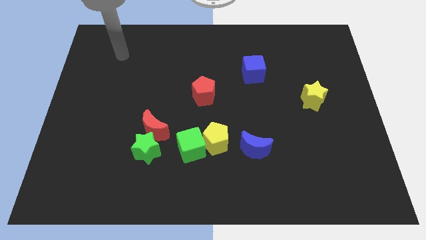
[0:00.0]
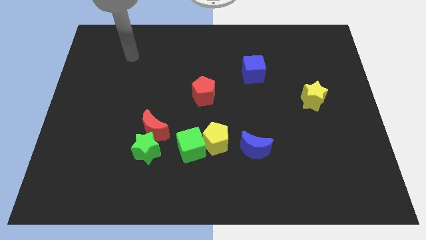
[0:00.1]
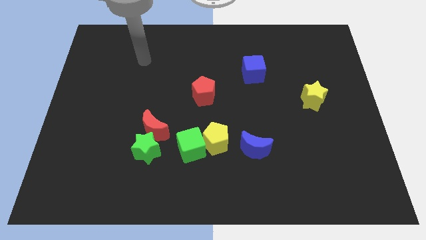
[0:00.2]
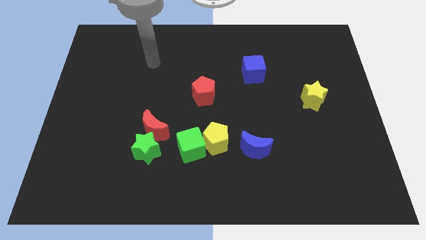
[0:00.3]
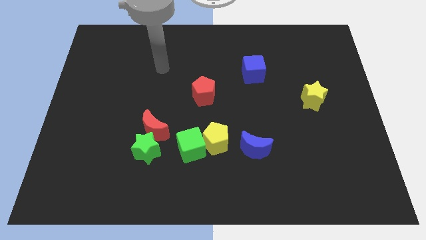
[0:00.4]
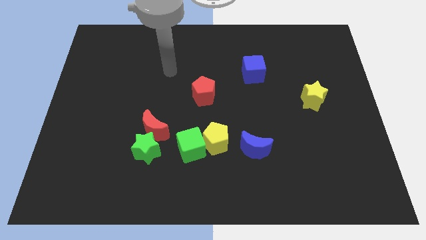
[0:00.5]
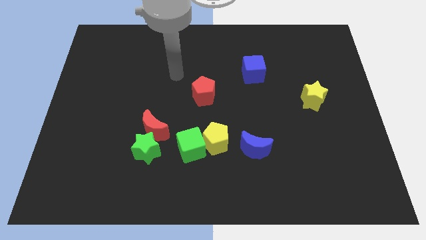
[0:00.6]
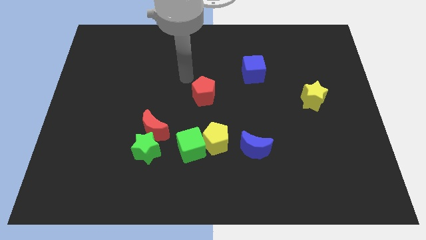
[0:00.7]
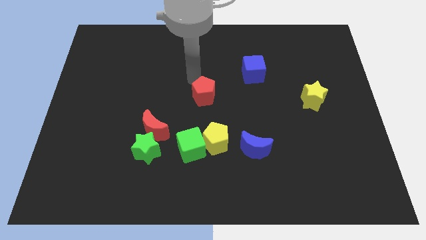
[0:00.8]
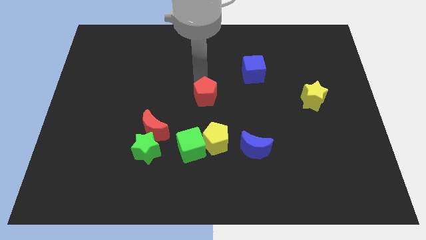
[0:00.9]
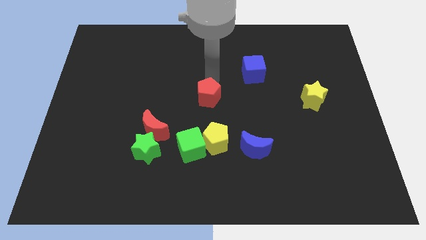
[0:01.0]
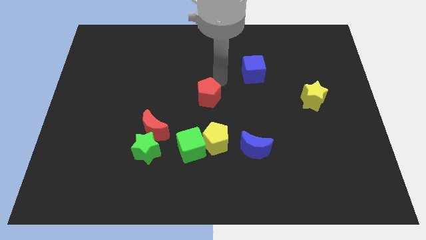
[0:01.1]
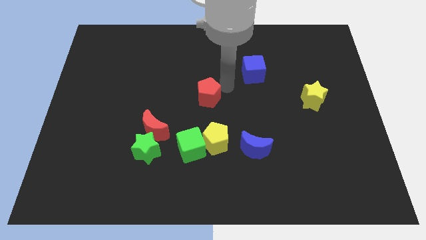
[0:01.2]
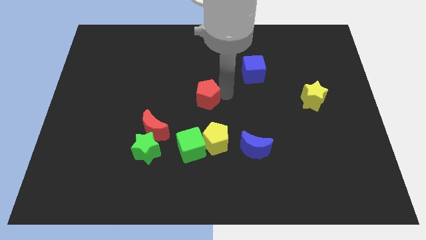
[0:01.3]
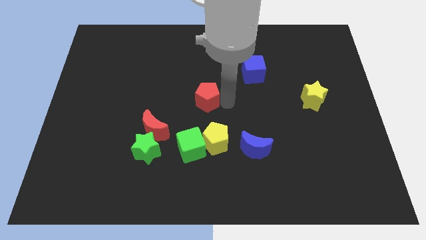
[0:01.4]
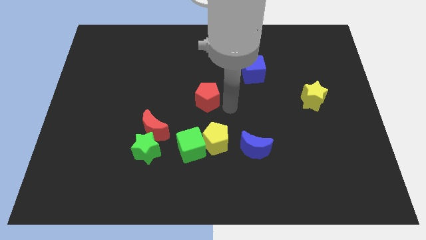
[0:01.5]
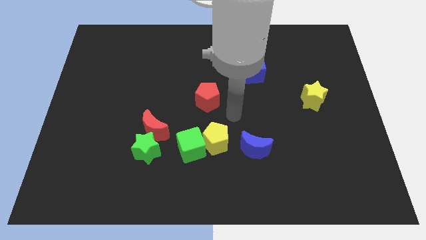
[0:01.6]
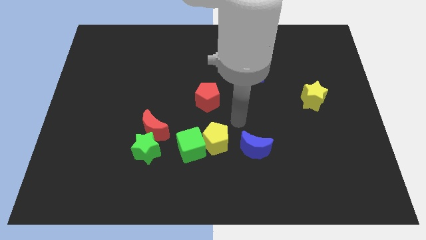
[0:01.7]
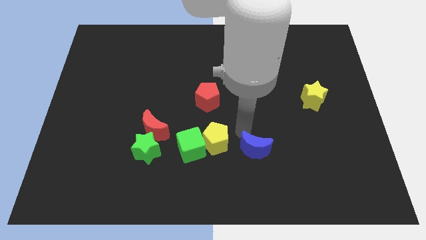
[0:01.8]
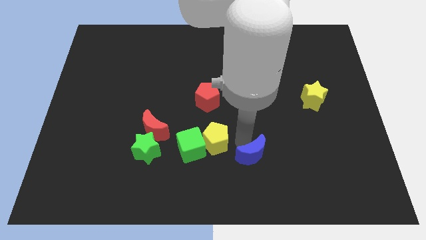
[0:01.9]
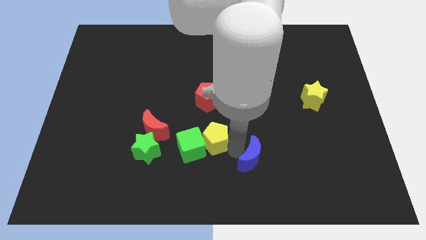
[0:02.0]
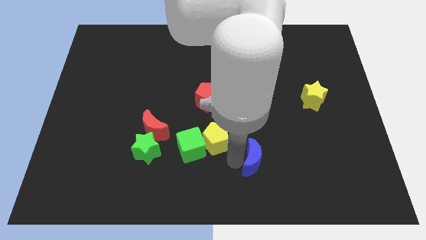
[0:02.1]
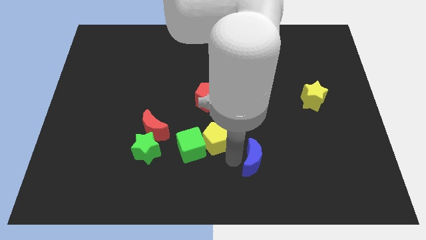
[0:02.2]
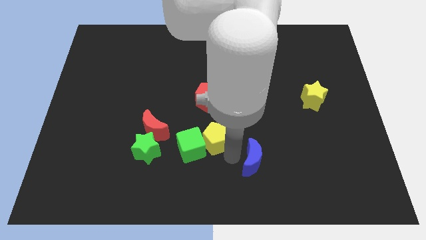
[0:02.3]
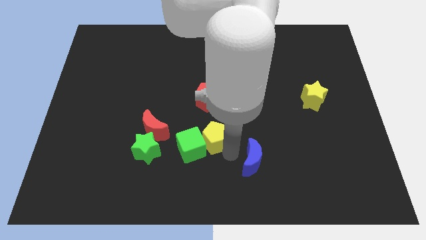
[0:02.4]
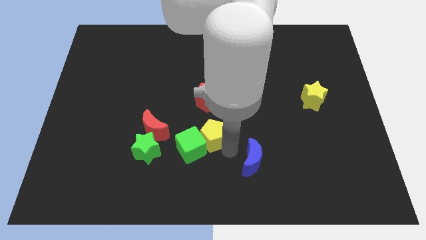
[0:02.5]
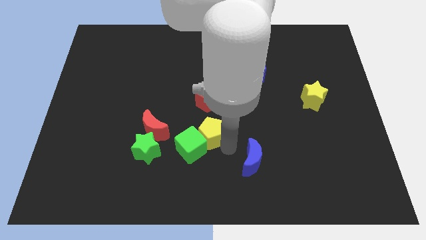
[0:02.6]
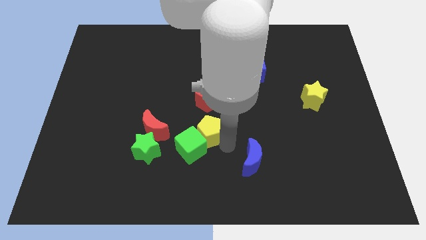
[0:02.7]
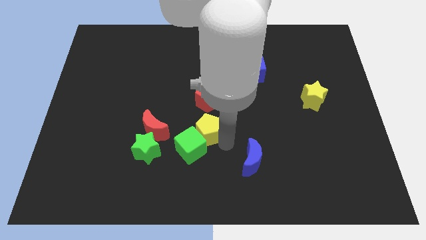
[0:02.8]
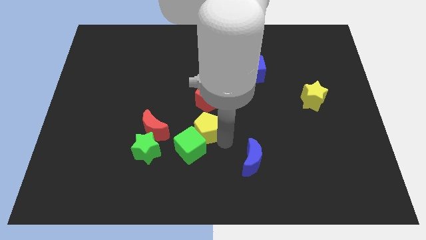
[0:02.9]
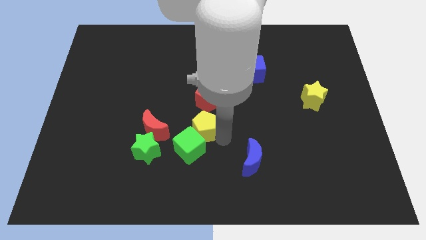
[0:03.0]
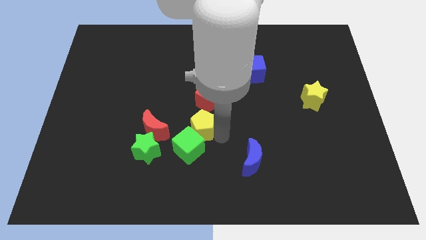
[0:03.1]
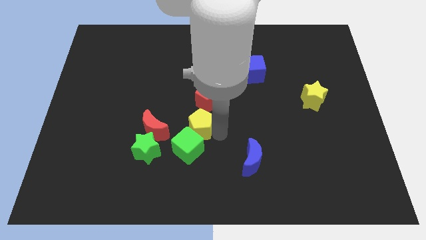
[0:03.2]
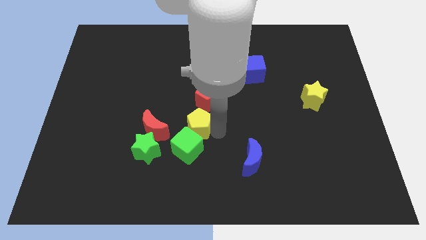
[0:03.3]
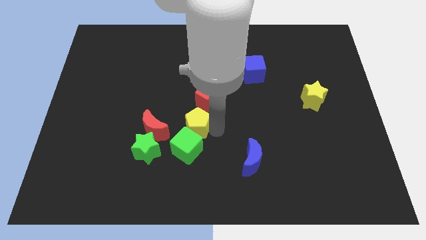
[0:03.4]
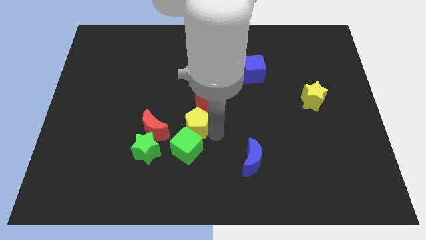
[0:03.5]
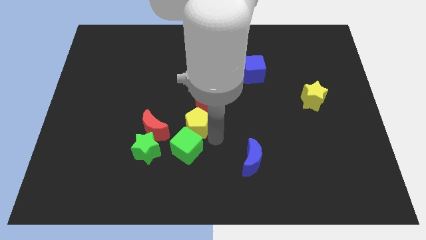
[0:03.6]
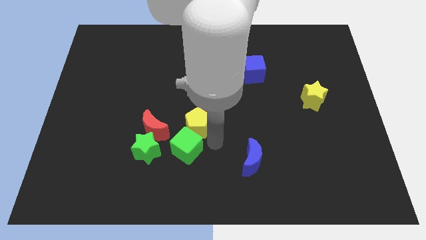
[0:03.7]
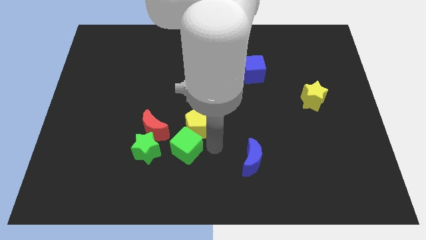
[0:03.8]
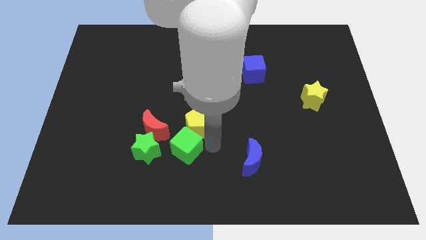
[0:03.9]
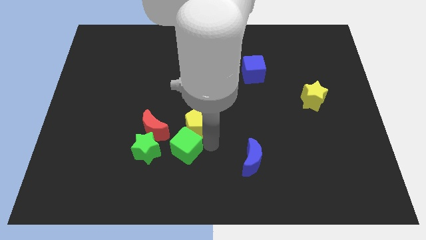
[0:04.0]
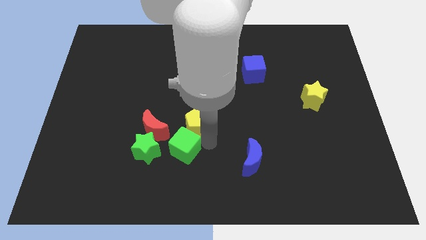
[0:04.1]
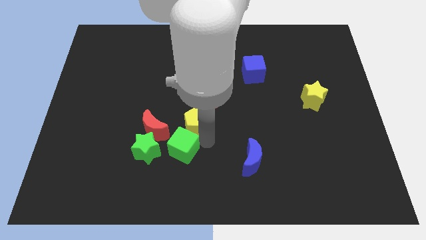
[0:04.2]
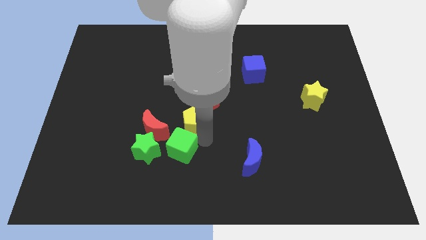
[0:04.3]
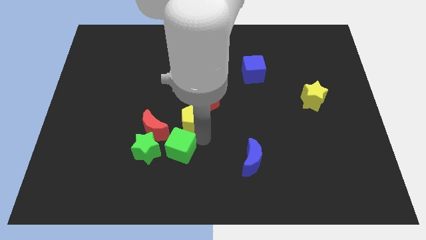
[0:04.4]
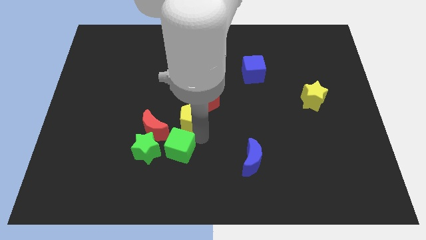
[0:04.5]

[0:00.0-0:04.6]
move the yellow pentagon away from the green cube and blue moon

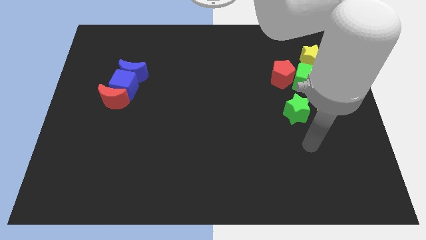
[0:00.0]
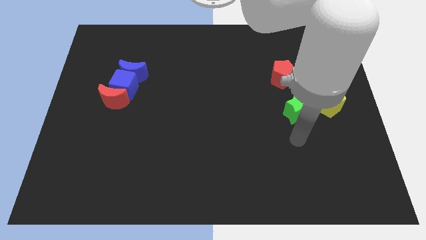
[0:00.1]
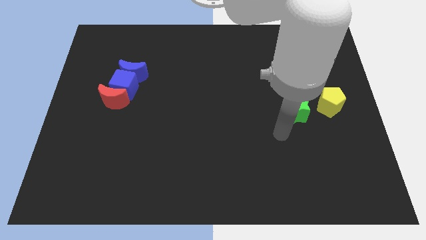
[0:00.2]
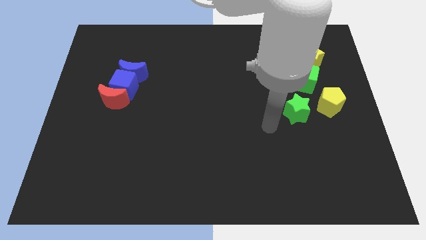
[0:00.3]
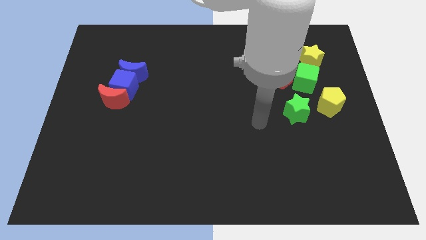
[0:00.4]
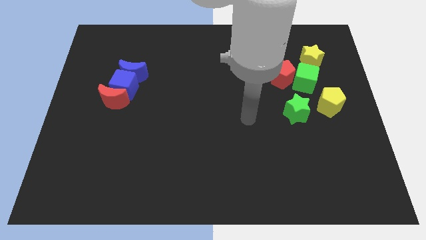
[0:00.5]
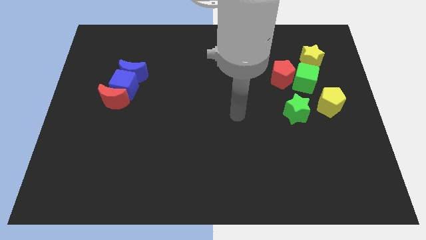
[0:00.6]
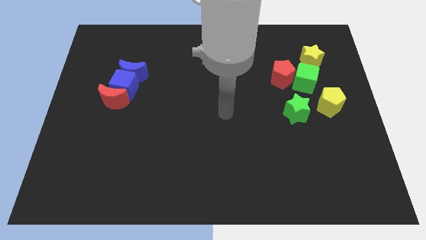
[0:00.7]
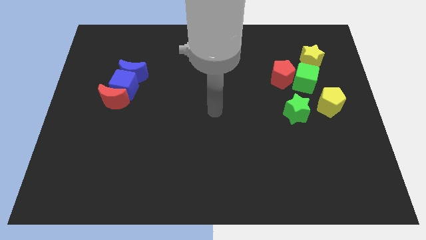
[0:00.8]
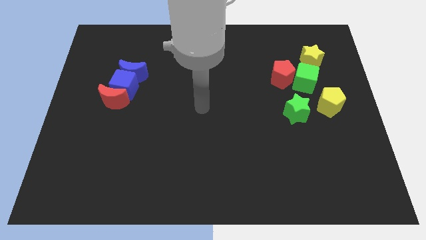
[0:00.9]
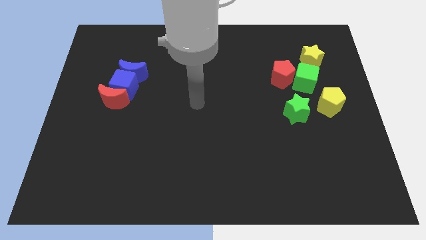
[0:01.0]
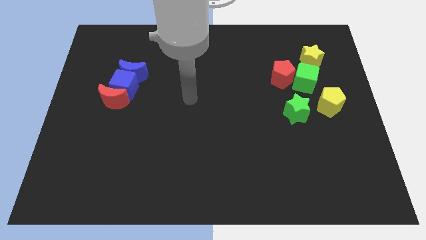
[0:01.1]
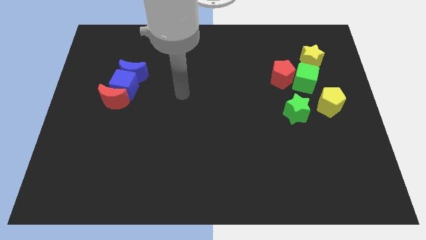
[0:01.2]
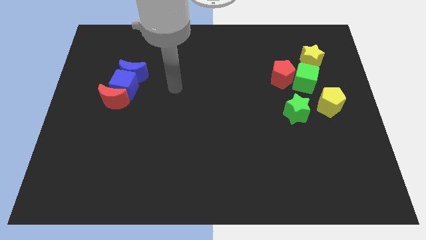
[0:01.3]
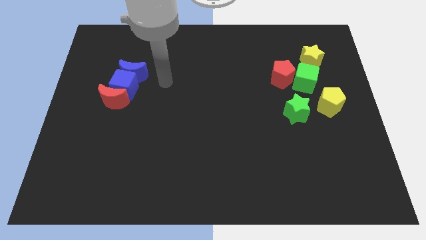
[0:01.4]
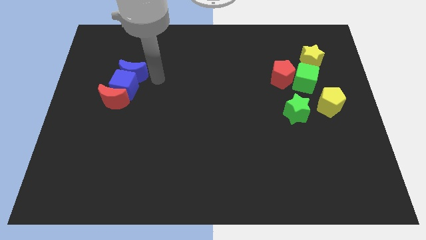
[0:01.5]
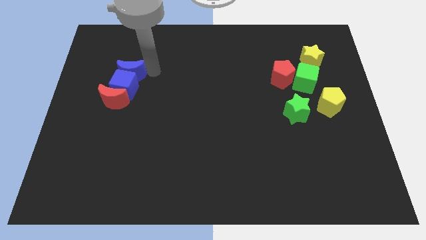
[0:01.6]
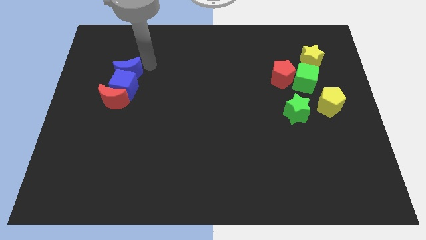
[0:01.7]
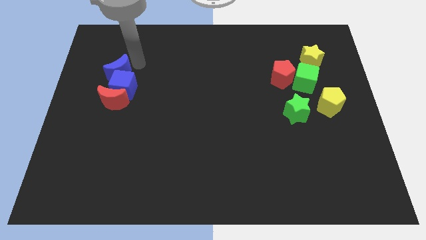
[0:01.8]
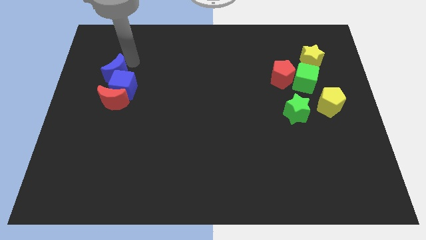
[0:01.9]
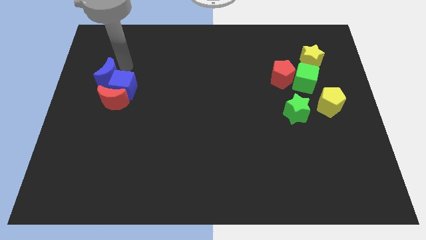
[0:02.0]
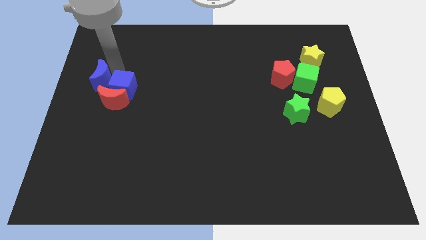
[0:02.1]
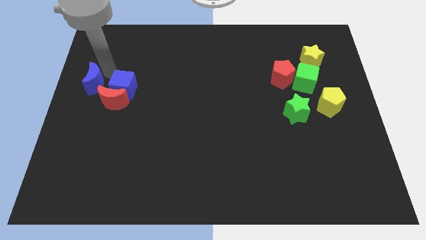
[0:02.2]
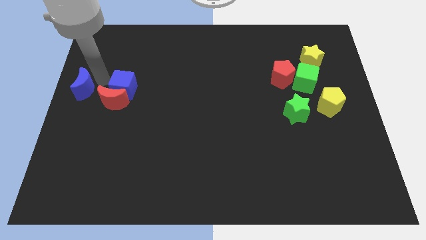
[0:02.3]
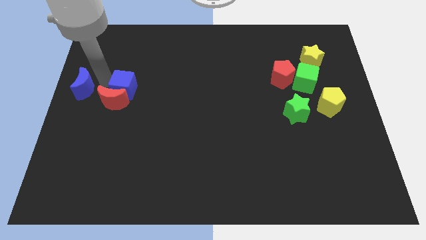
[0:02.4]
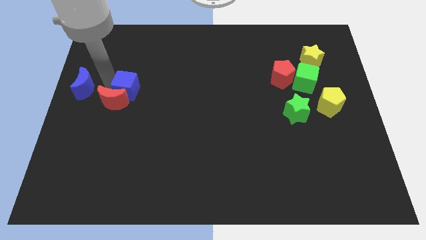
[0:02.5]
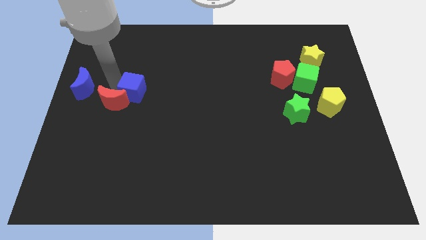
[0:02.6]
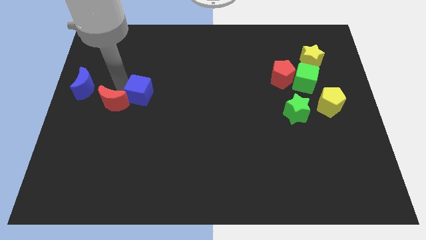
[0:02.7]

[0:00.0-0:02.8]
move the blue cube away from the blue moon and red moon

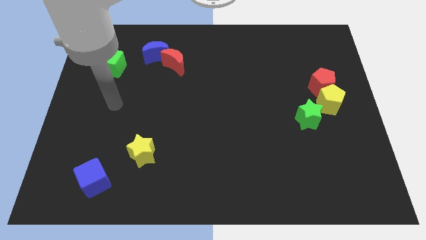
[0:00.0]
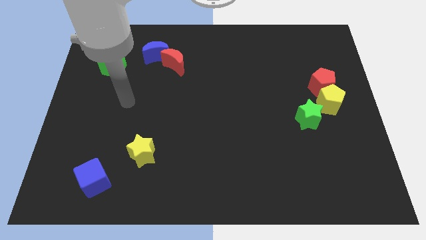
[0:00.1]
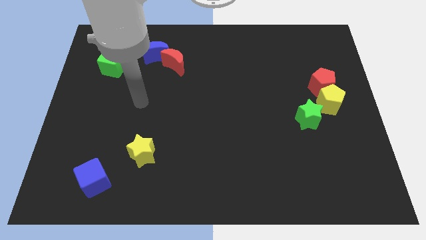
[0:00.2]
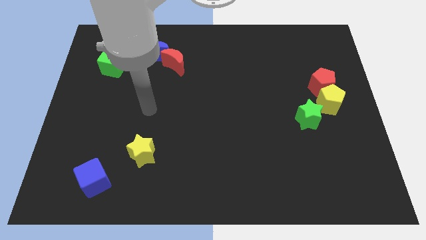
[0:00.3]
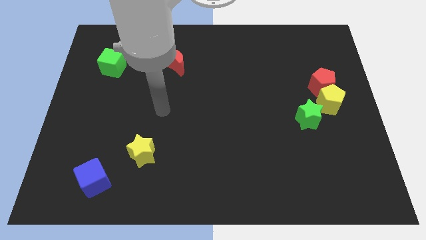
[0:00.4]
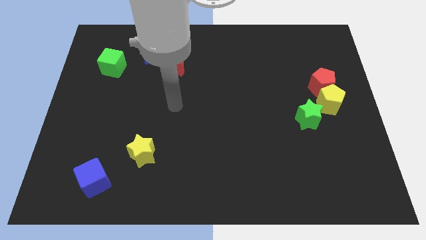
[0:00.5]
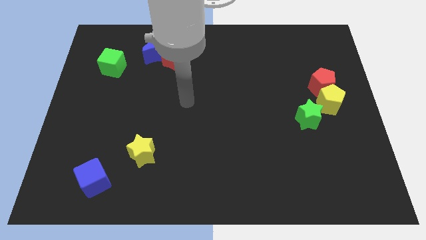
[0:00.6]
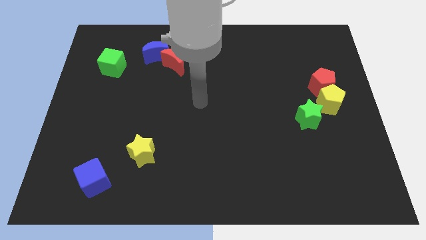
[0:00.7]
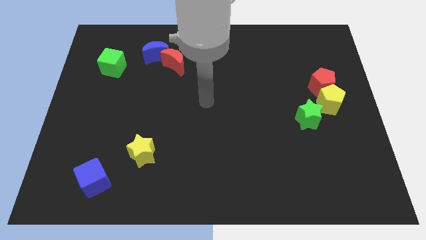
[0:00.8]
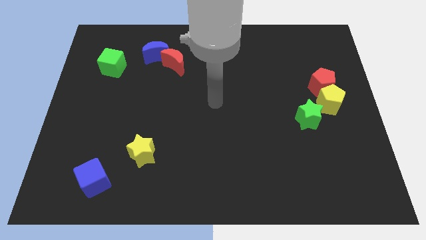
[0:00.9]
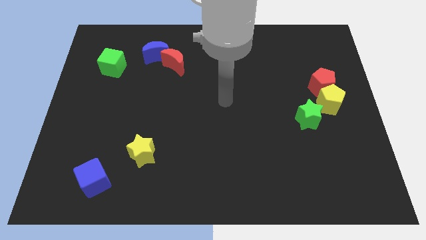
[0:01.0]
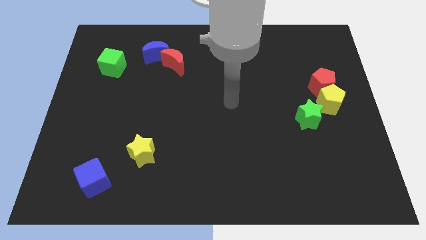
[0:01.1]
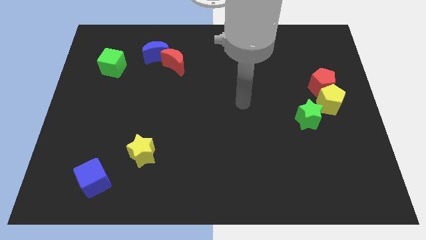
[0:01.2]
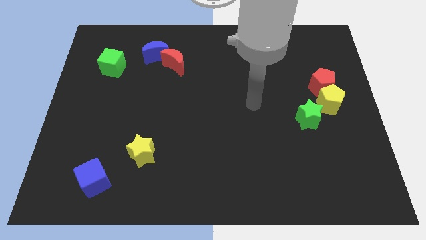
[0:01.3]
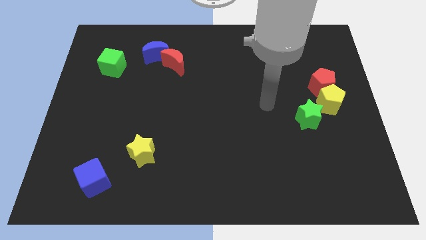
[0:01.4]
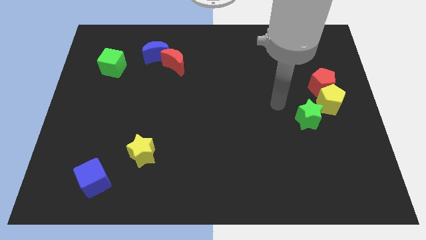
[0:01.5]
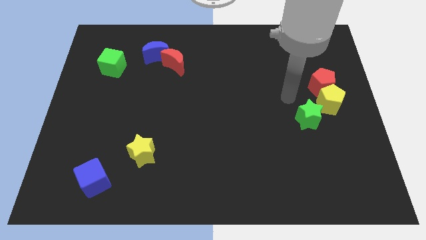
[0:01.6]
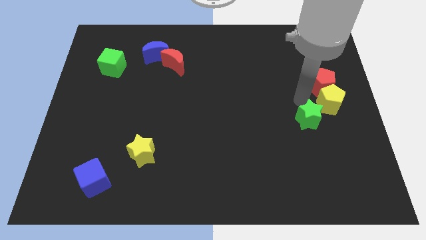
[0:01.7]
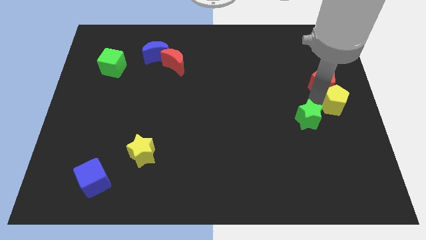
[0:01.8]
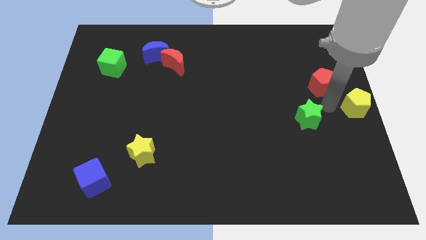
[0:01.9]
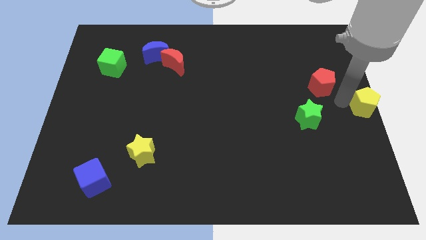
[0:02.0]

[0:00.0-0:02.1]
move the red pentagon away from the yellow pentagon
